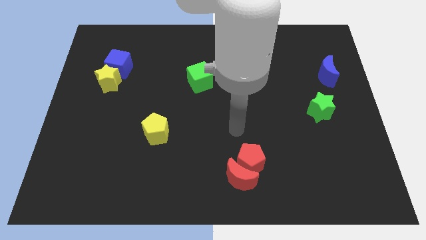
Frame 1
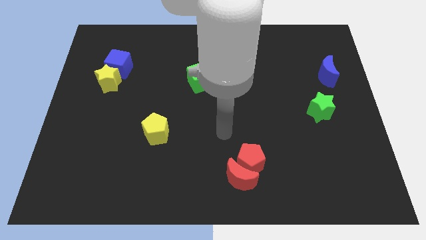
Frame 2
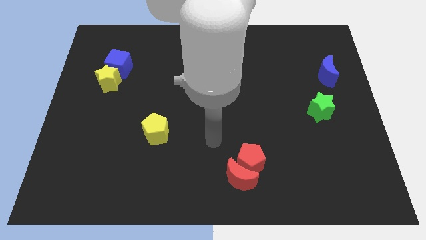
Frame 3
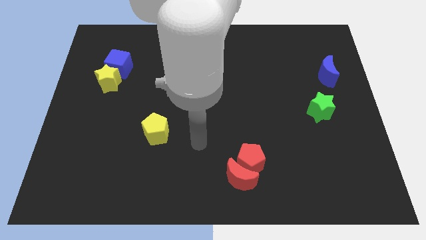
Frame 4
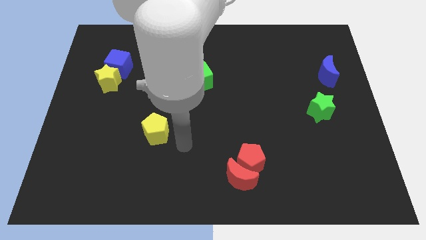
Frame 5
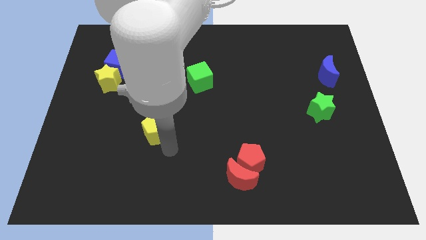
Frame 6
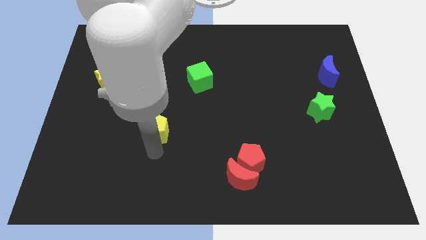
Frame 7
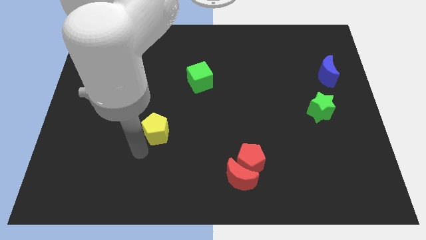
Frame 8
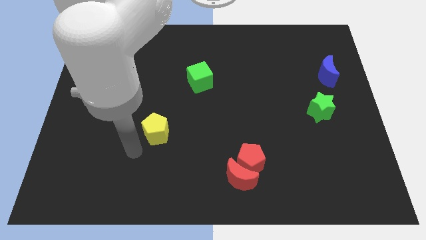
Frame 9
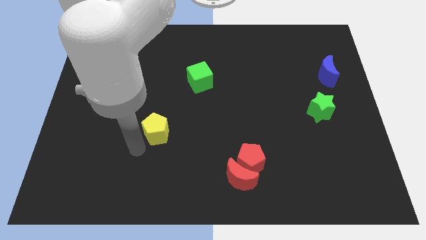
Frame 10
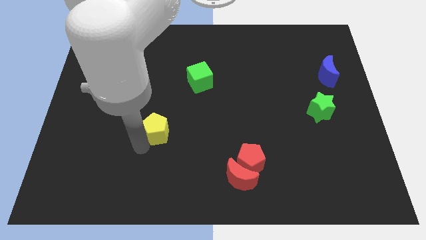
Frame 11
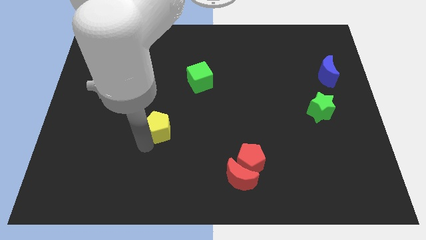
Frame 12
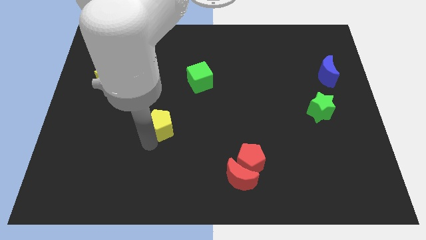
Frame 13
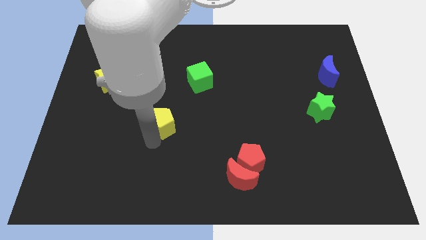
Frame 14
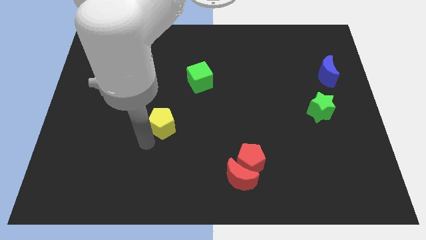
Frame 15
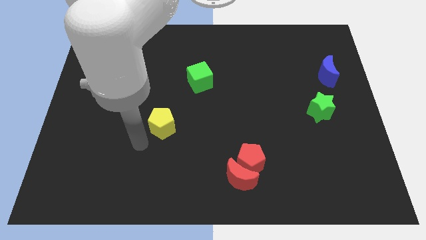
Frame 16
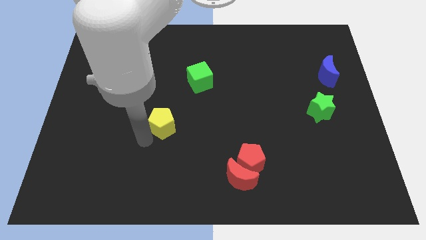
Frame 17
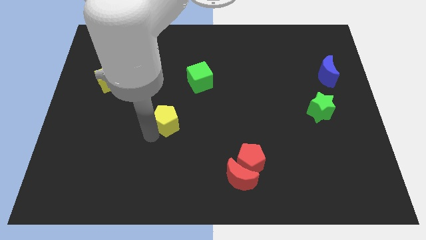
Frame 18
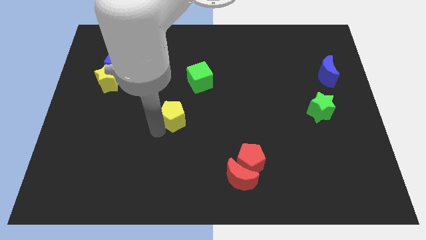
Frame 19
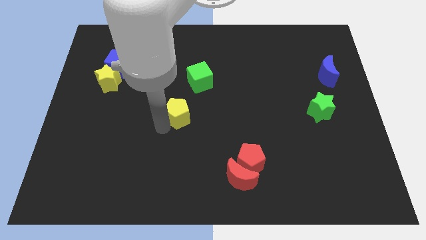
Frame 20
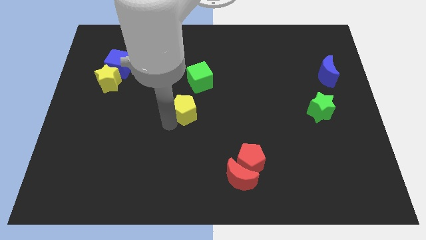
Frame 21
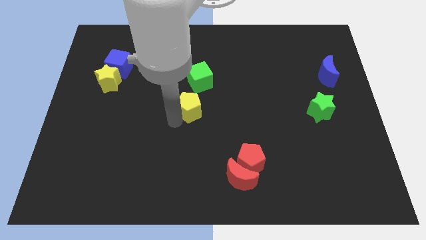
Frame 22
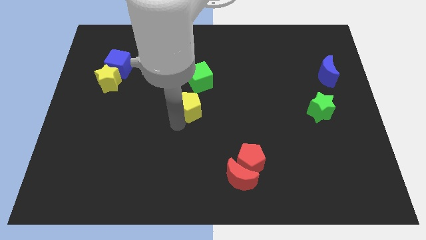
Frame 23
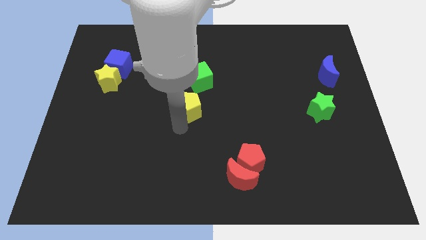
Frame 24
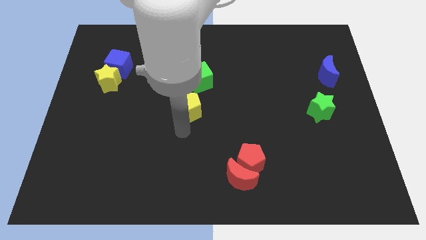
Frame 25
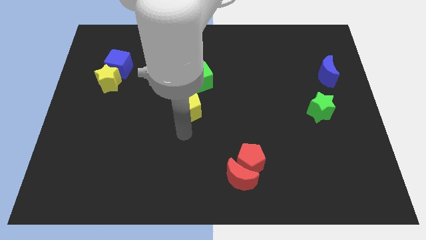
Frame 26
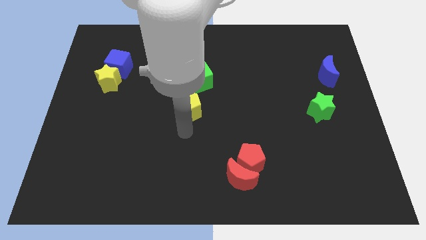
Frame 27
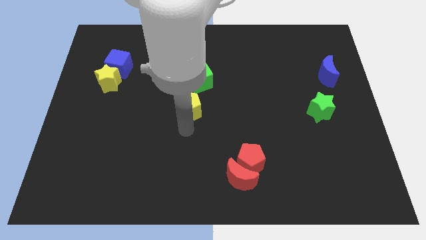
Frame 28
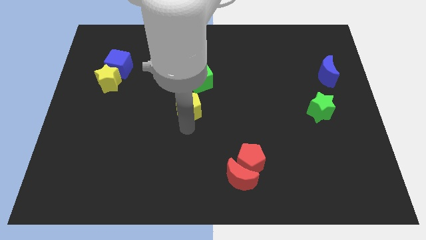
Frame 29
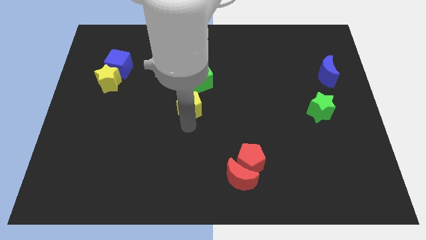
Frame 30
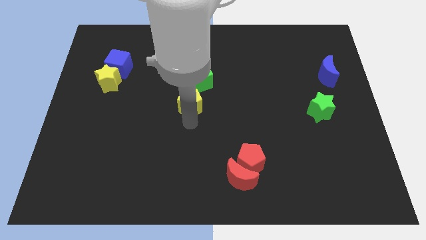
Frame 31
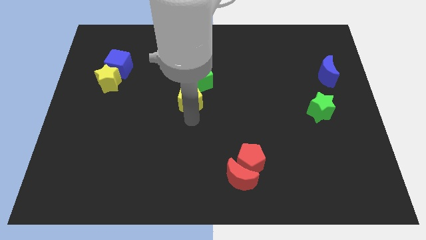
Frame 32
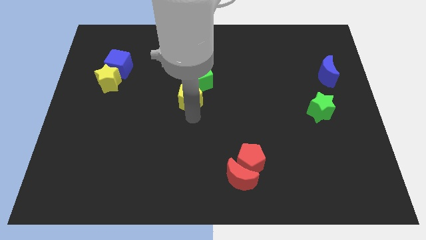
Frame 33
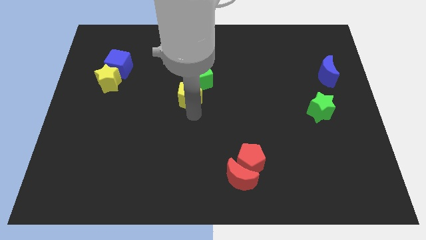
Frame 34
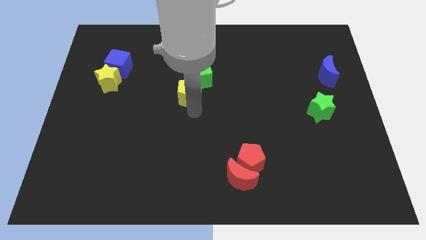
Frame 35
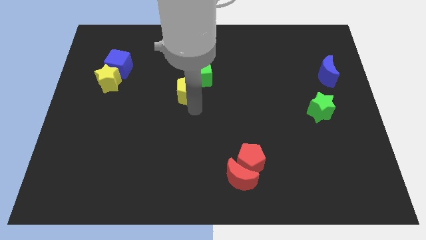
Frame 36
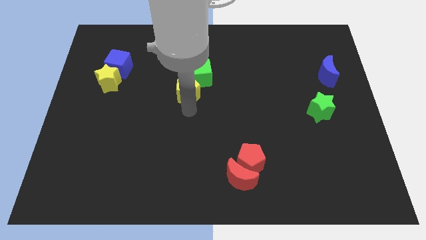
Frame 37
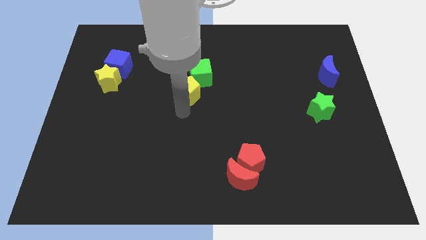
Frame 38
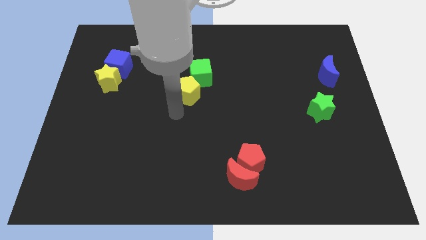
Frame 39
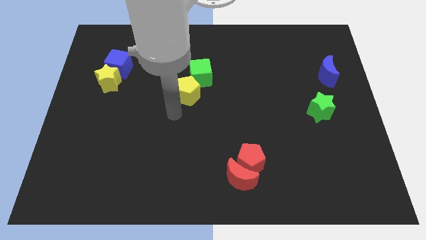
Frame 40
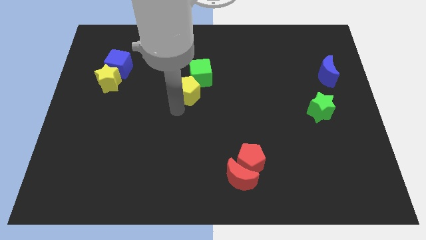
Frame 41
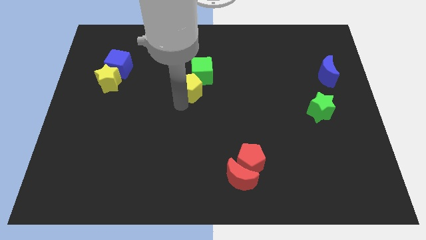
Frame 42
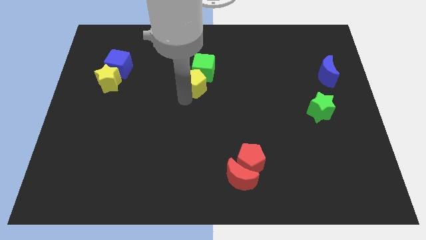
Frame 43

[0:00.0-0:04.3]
push the yellow pentagon towards the green cube

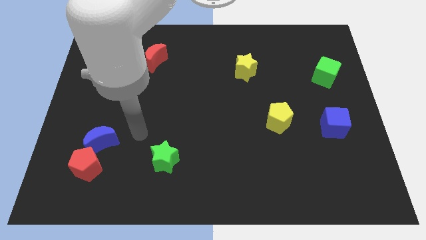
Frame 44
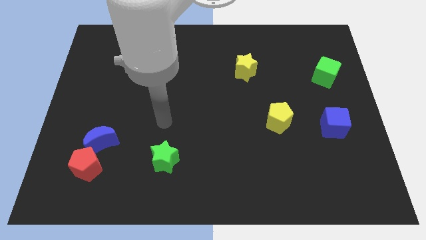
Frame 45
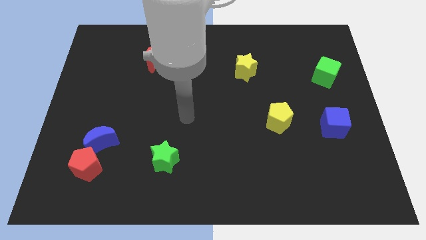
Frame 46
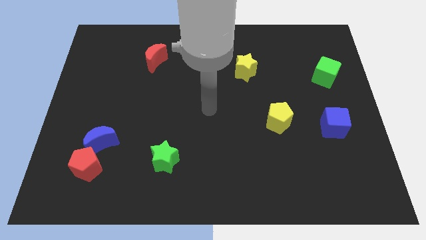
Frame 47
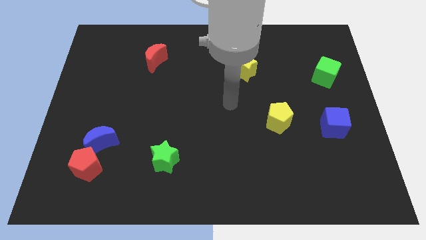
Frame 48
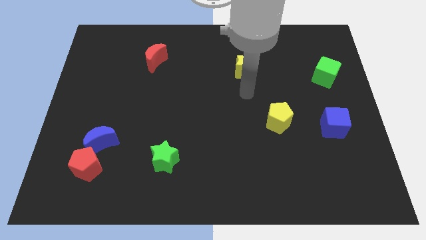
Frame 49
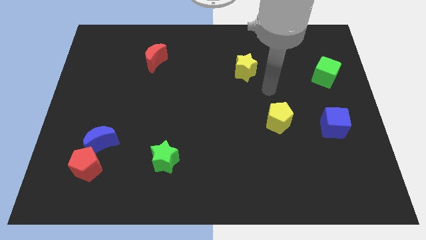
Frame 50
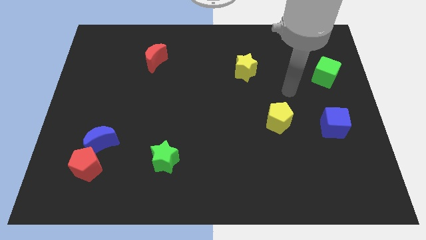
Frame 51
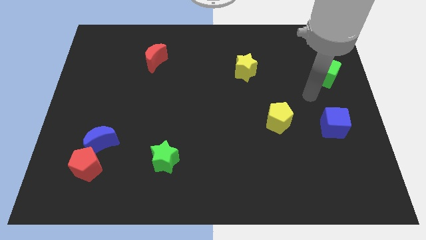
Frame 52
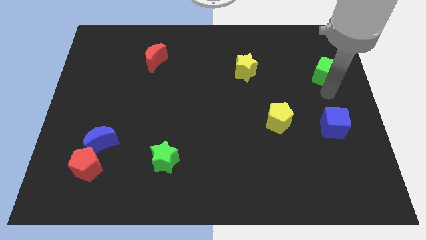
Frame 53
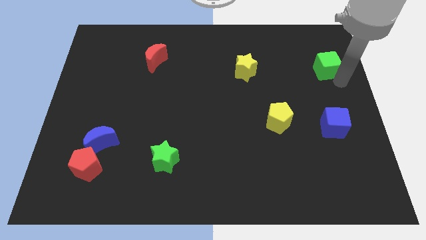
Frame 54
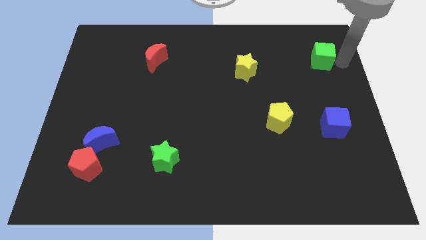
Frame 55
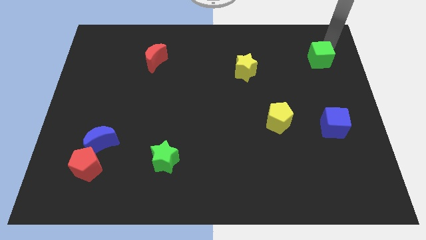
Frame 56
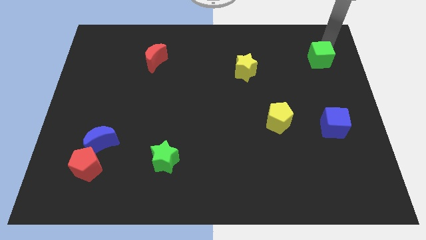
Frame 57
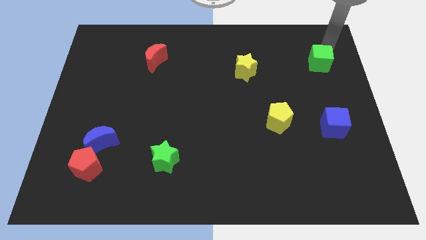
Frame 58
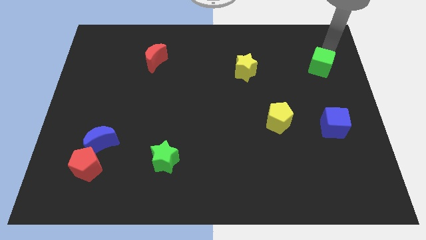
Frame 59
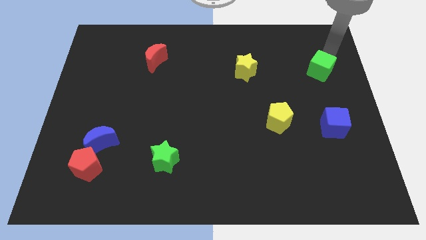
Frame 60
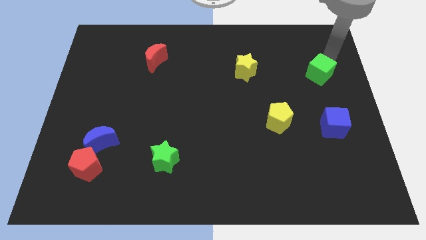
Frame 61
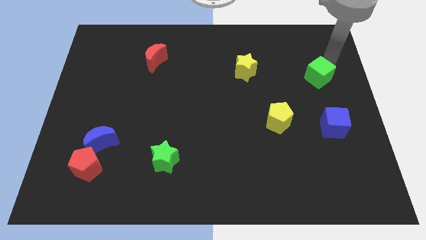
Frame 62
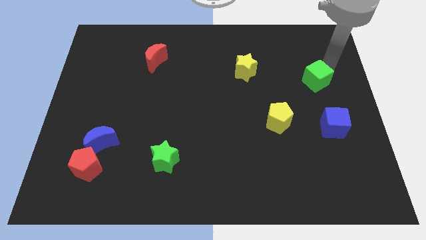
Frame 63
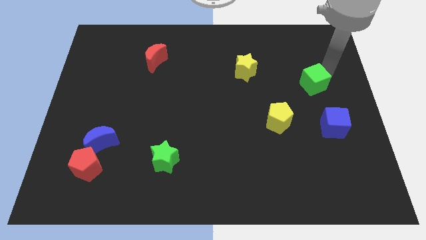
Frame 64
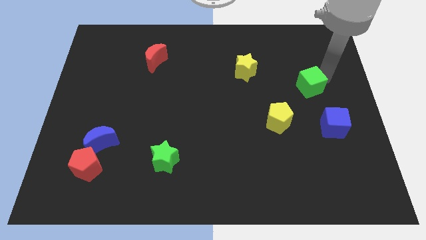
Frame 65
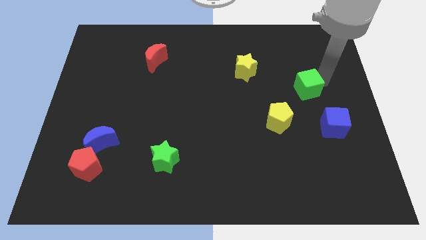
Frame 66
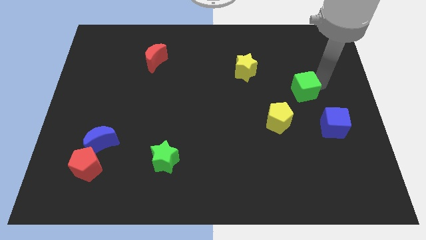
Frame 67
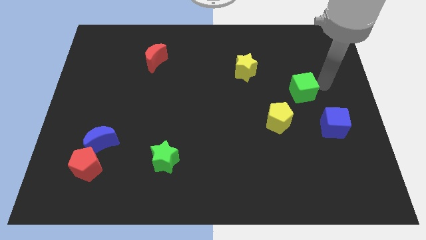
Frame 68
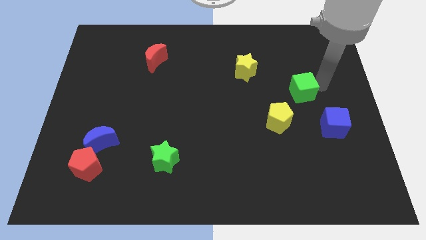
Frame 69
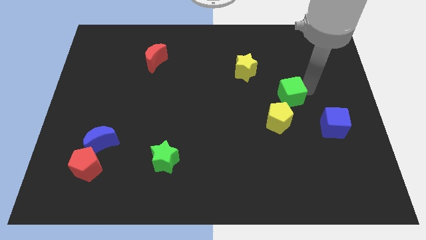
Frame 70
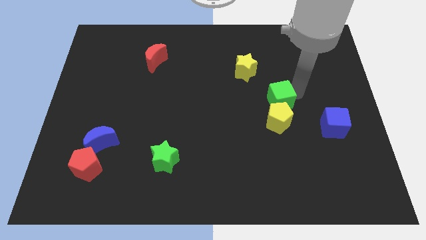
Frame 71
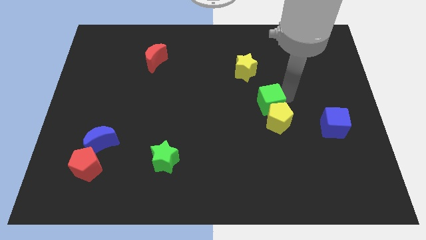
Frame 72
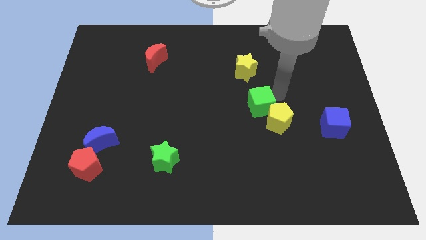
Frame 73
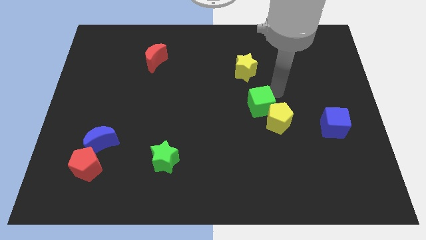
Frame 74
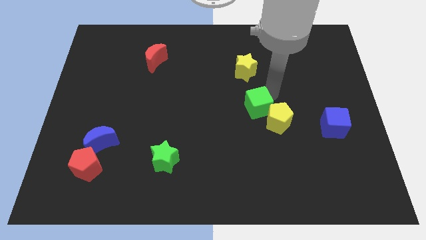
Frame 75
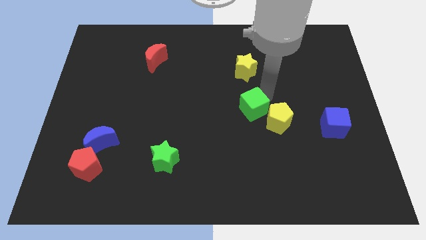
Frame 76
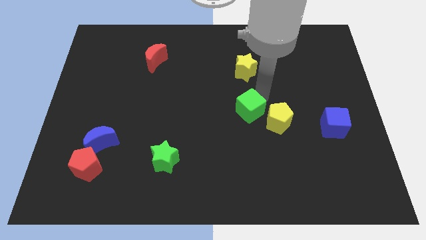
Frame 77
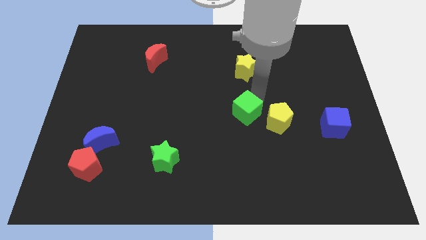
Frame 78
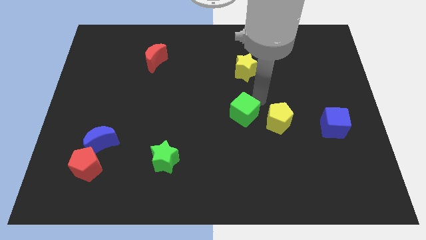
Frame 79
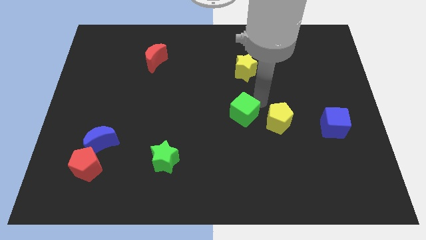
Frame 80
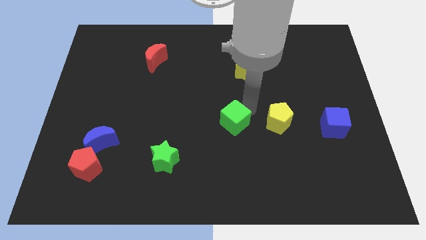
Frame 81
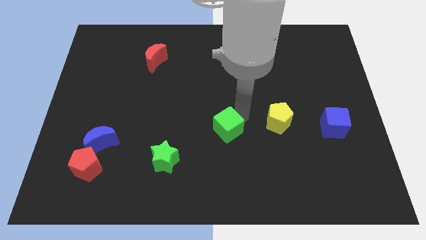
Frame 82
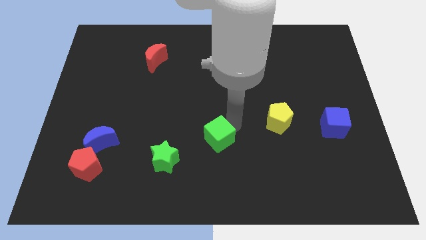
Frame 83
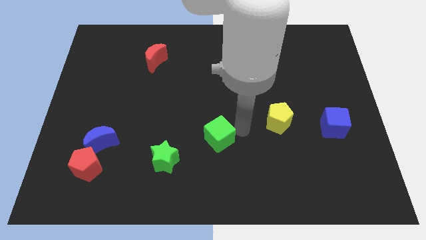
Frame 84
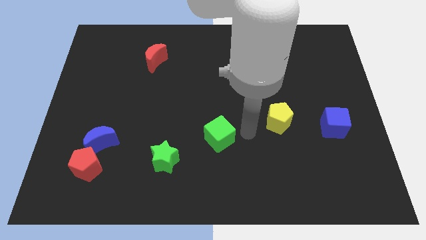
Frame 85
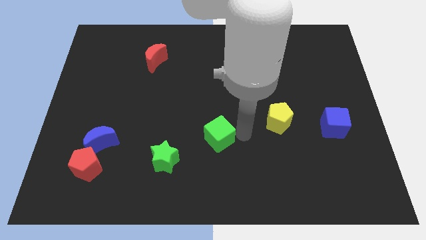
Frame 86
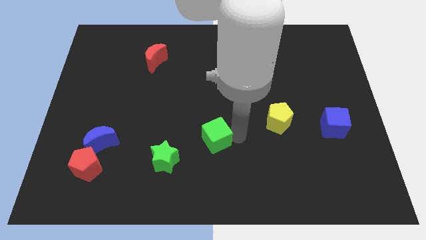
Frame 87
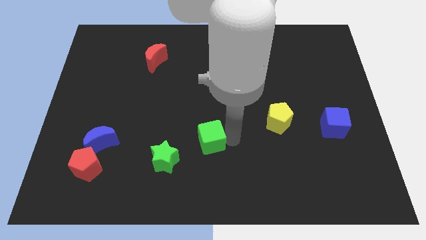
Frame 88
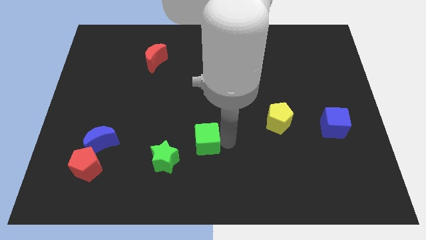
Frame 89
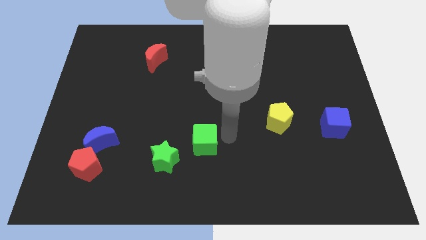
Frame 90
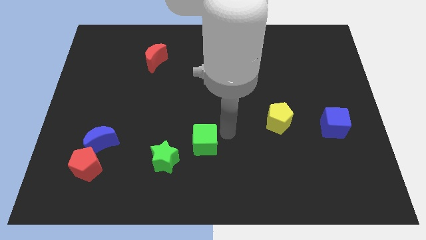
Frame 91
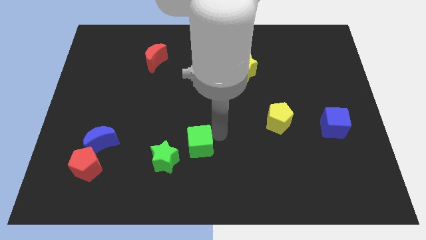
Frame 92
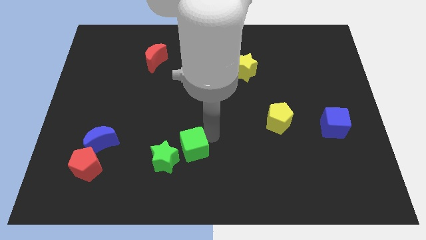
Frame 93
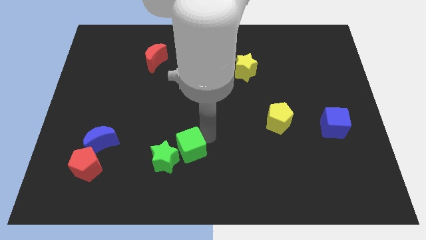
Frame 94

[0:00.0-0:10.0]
push the green cube towards the green star
